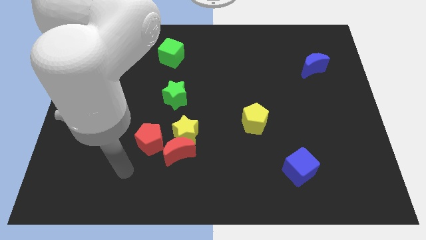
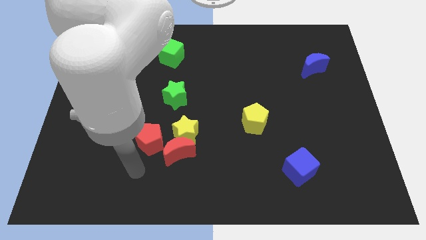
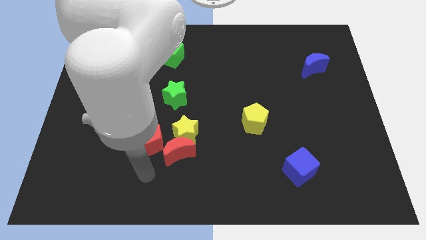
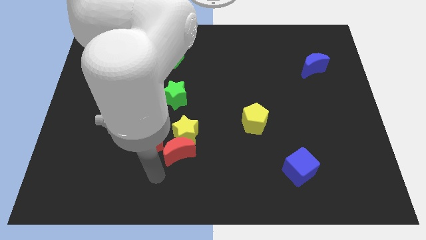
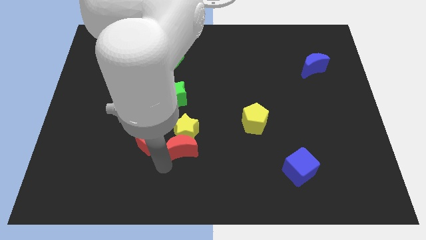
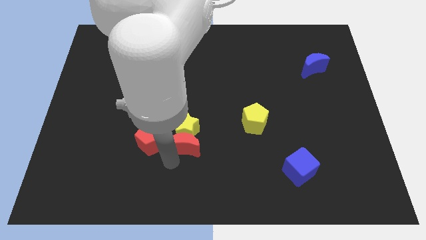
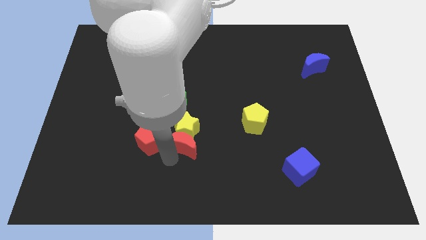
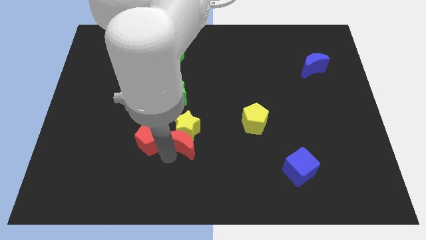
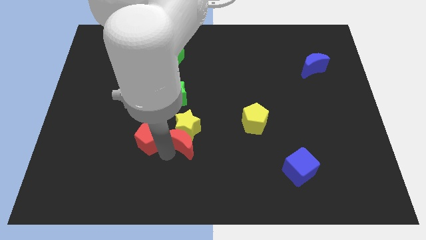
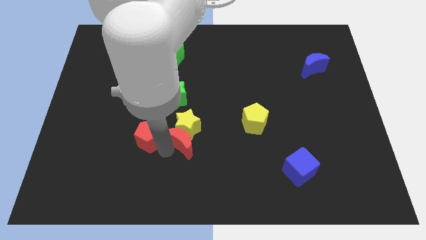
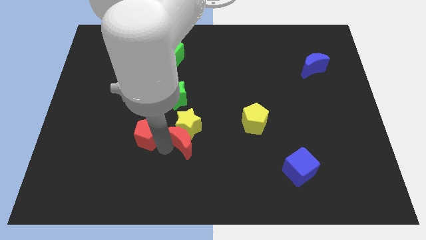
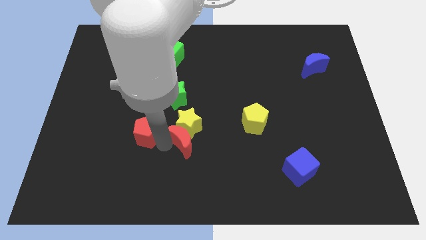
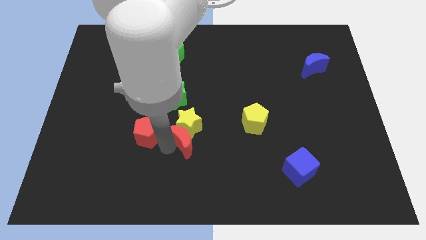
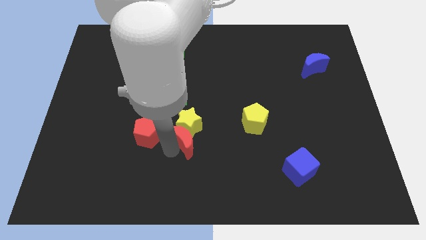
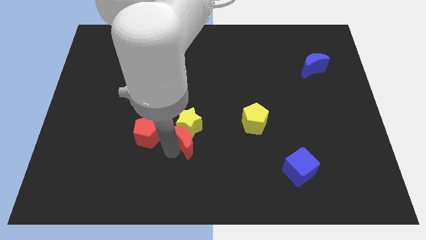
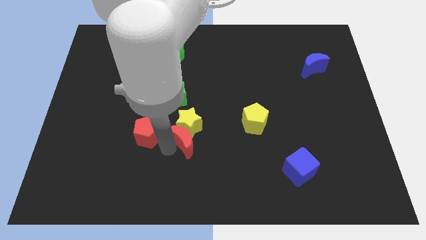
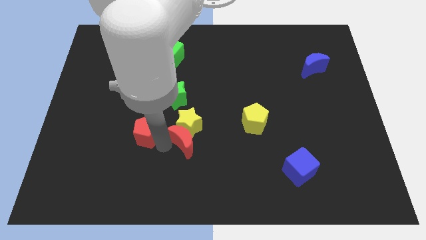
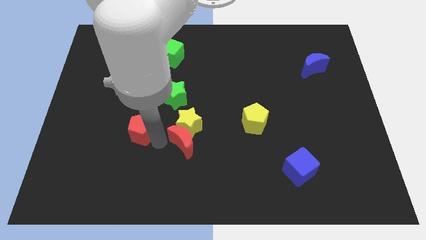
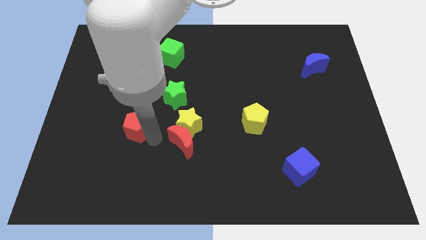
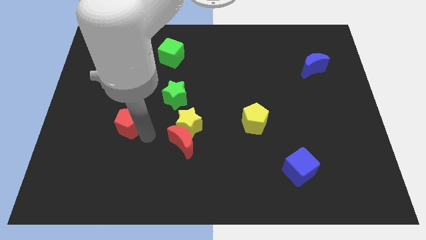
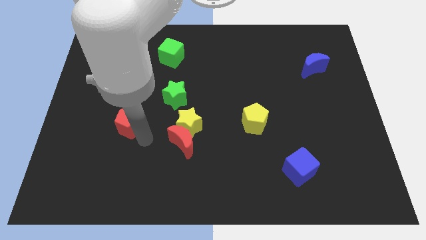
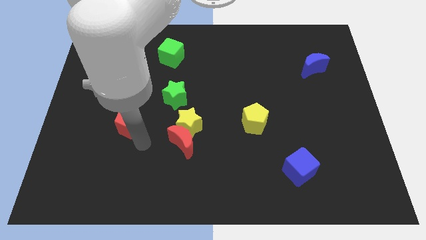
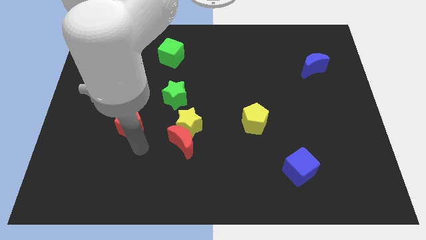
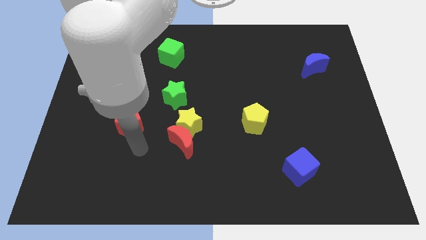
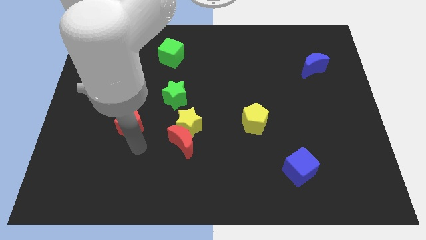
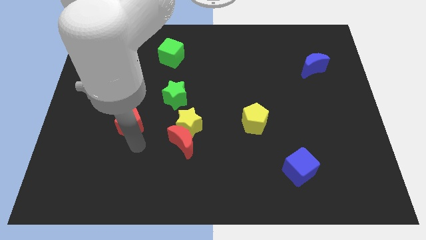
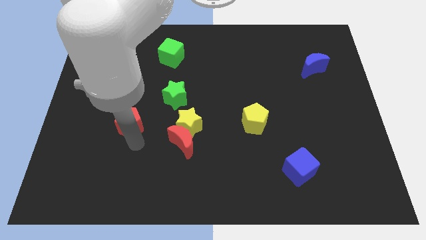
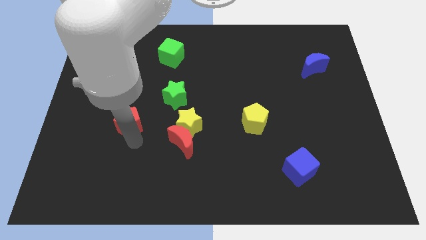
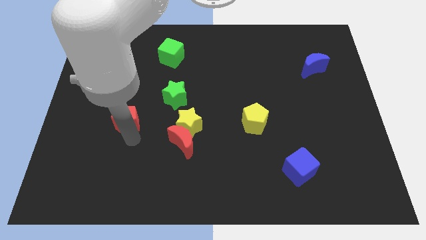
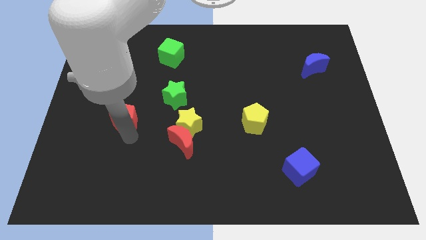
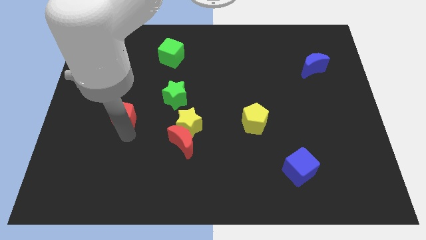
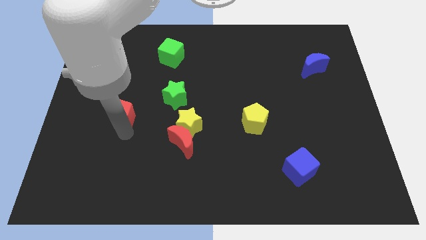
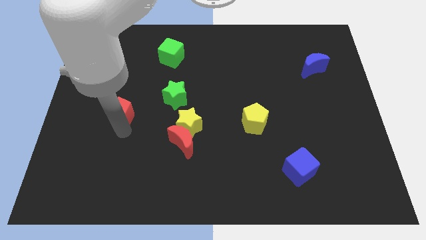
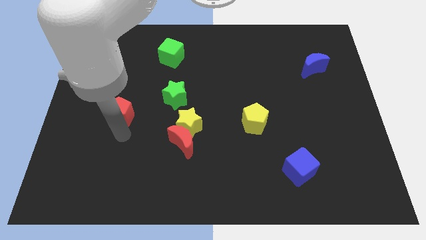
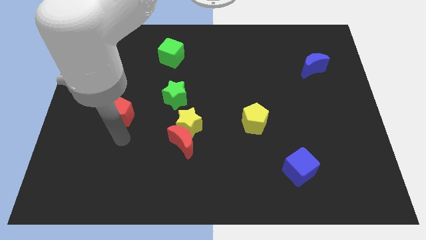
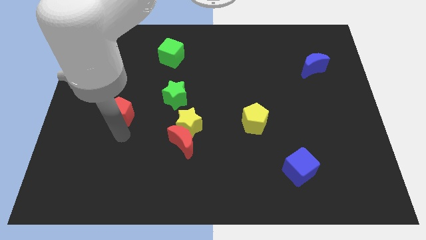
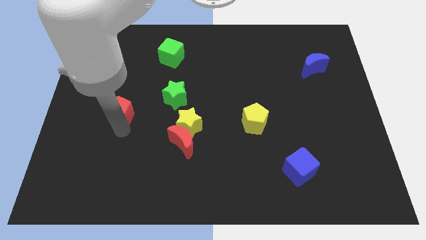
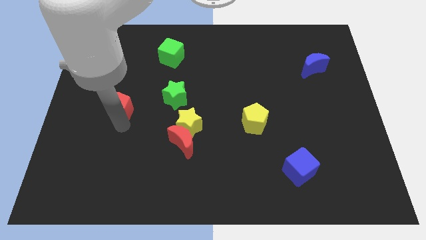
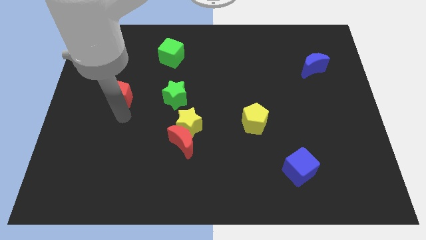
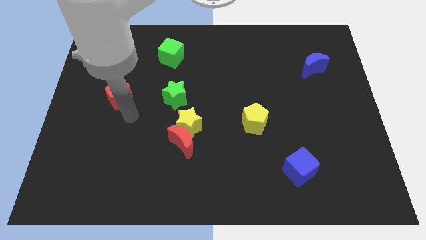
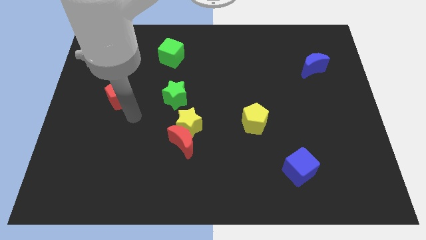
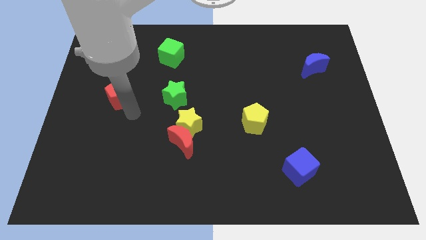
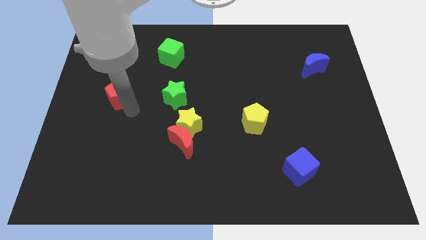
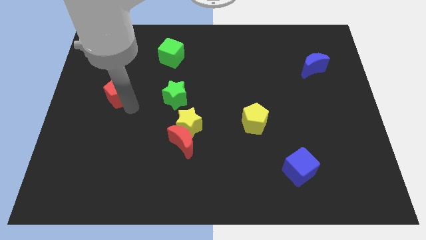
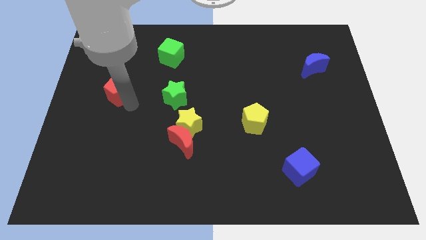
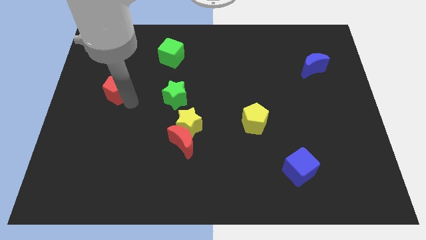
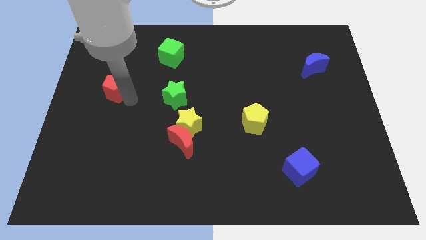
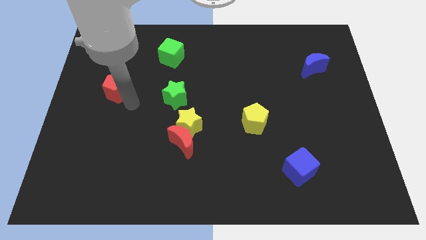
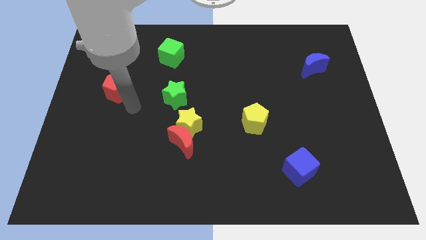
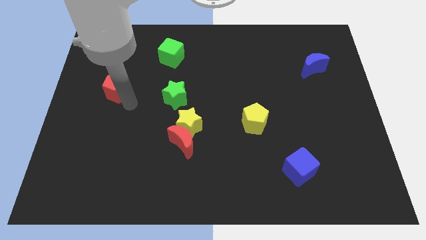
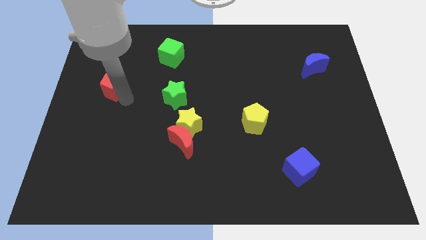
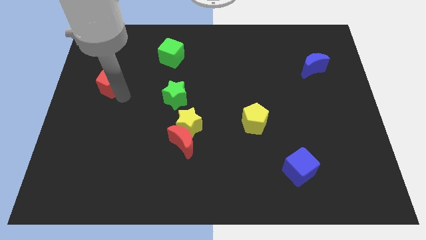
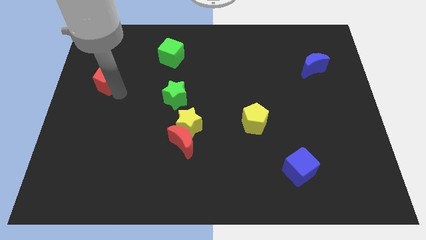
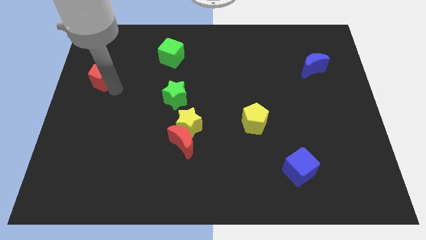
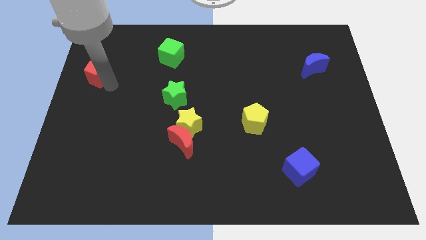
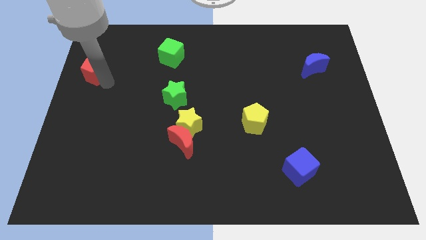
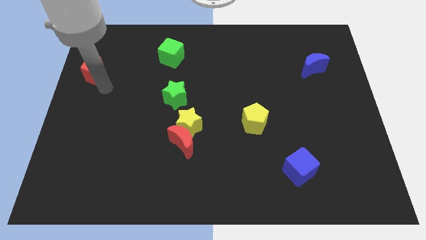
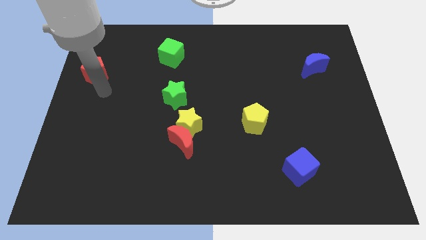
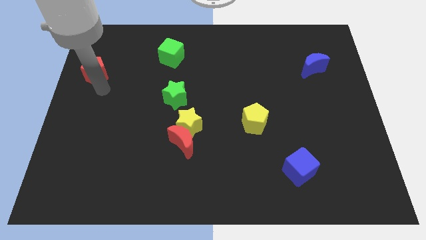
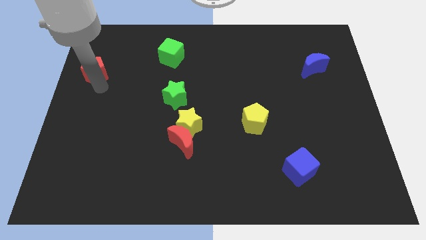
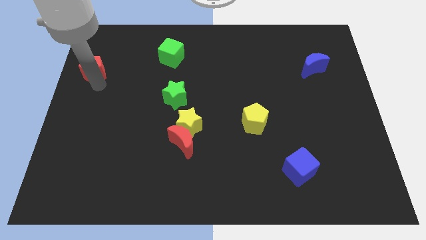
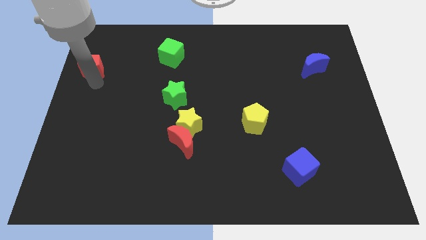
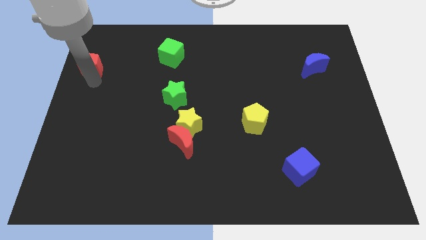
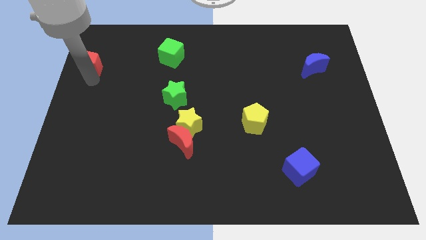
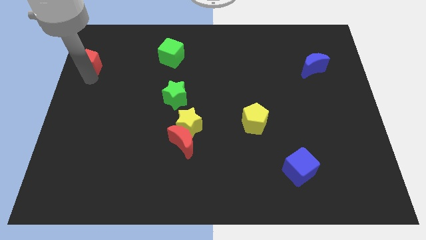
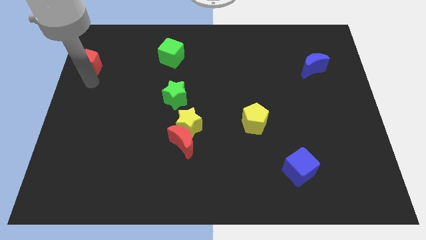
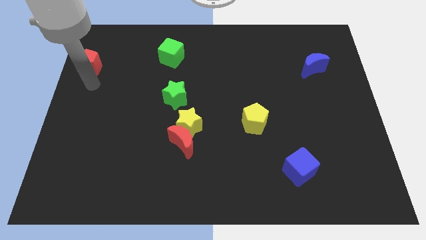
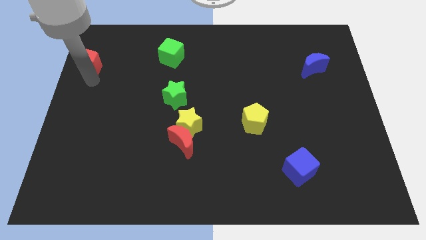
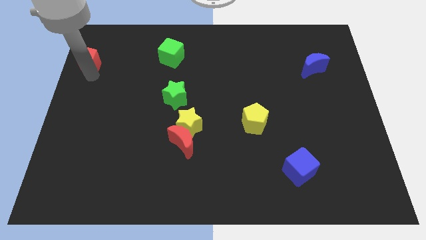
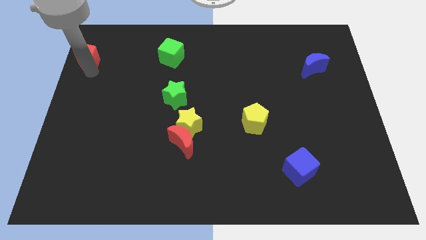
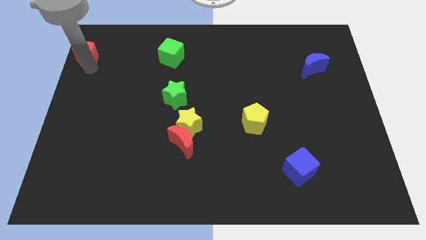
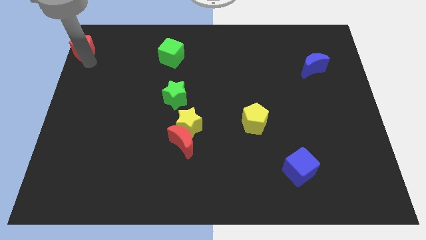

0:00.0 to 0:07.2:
move the red pentagon to the upper left corner
